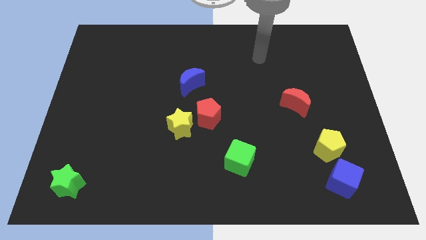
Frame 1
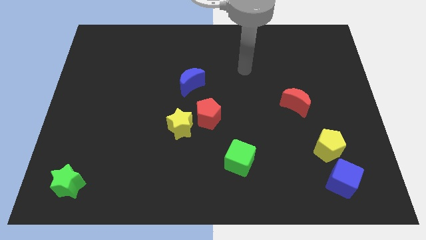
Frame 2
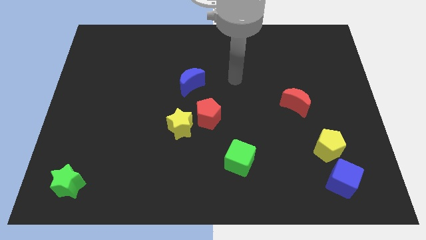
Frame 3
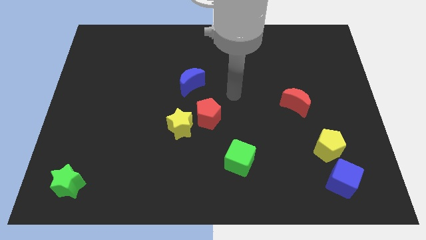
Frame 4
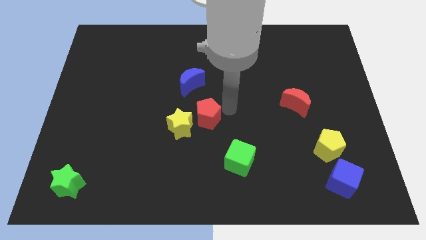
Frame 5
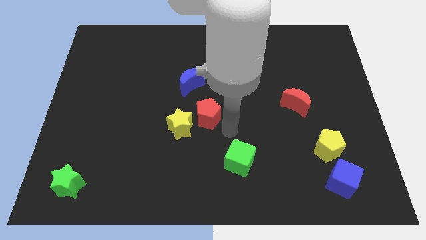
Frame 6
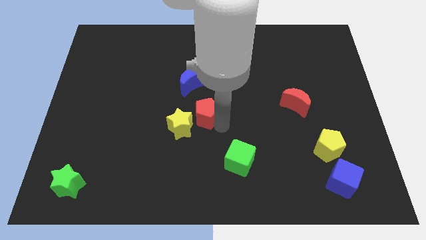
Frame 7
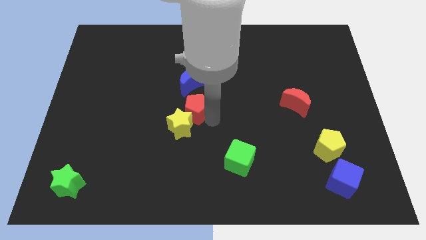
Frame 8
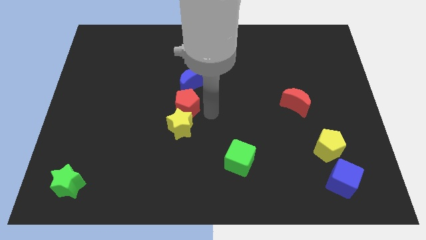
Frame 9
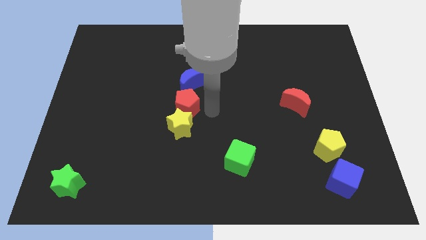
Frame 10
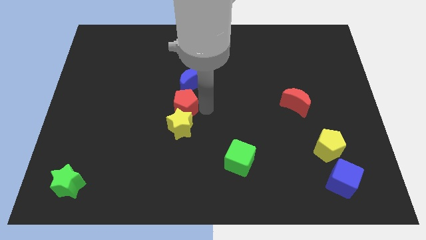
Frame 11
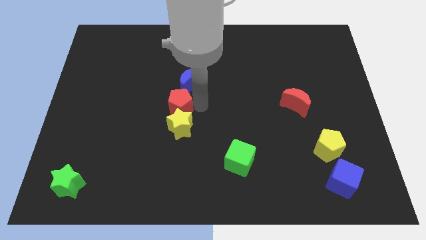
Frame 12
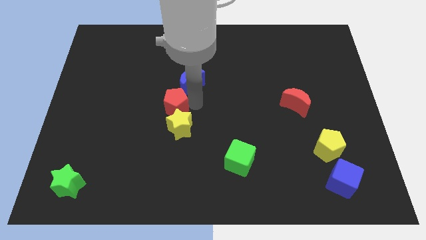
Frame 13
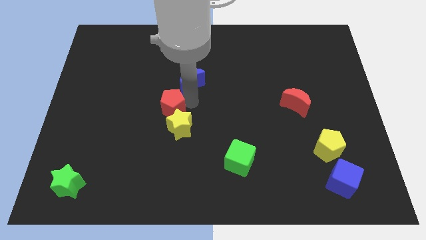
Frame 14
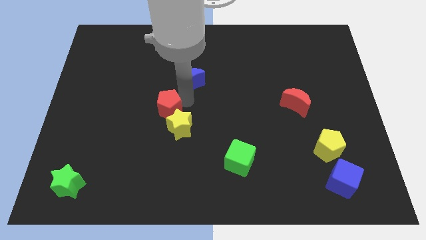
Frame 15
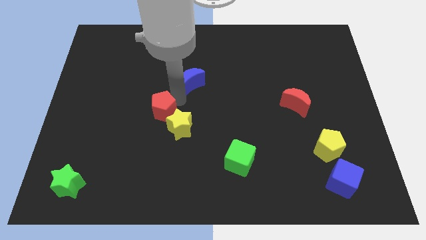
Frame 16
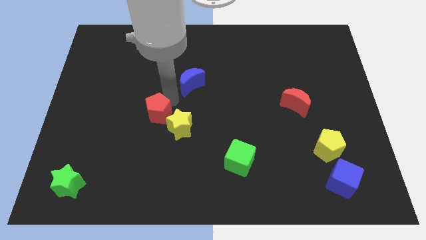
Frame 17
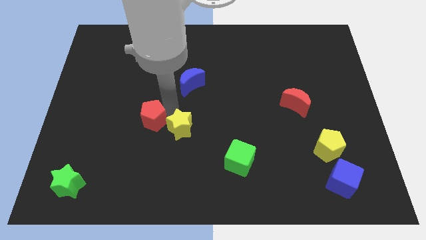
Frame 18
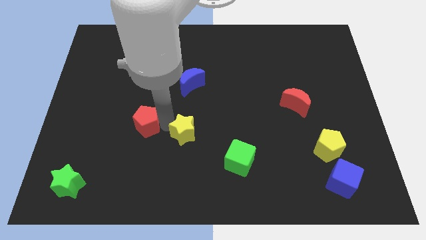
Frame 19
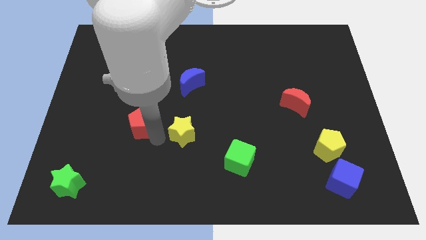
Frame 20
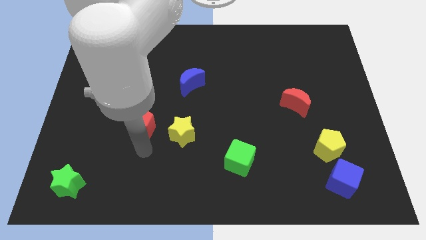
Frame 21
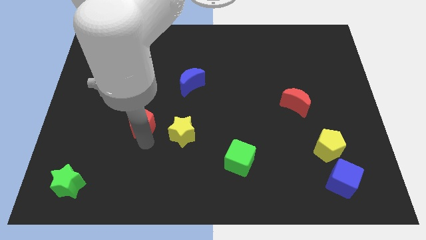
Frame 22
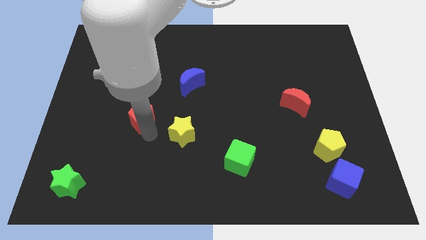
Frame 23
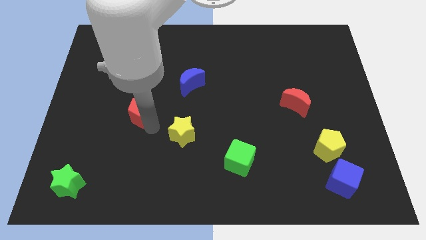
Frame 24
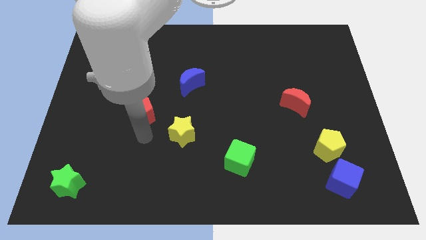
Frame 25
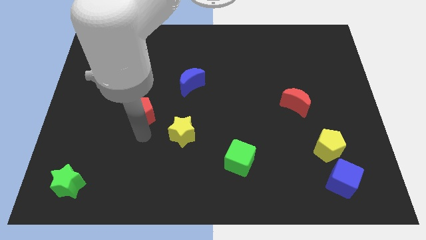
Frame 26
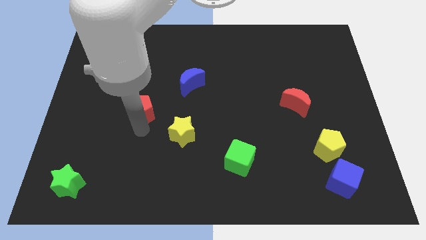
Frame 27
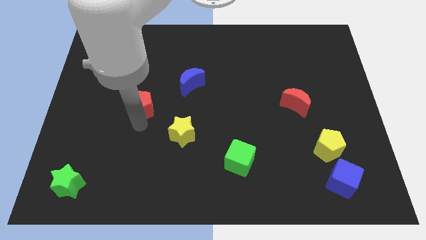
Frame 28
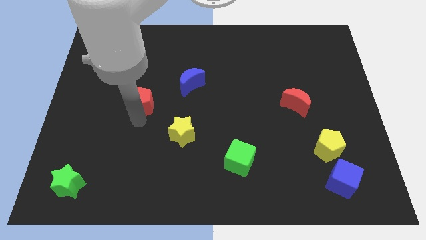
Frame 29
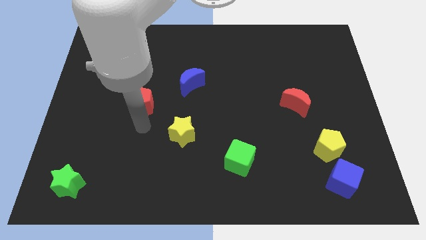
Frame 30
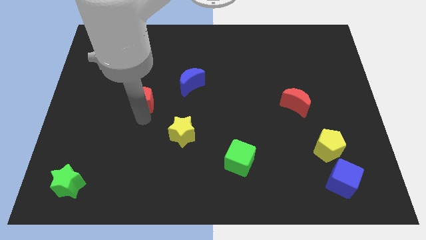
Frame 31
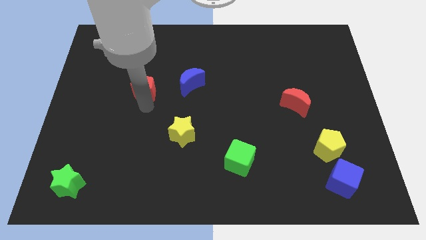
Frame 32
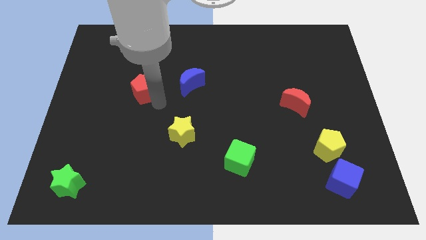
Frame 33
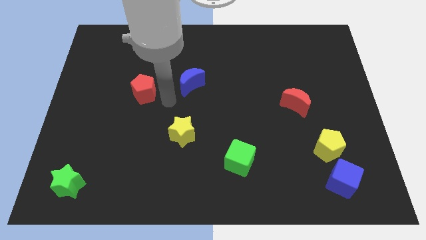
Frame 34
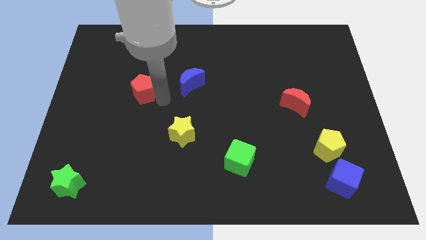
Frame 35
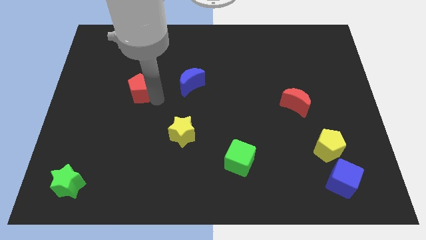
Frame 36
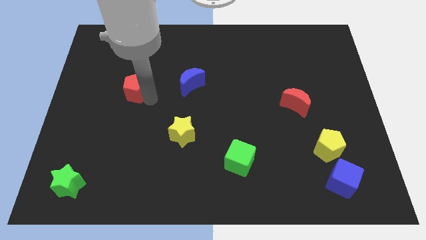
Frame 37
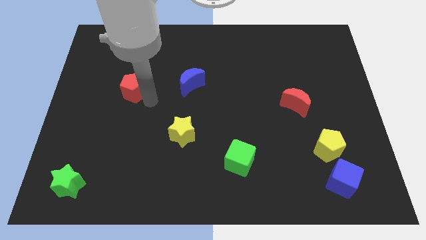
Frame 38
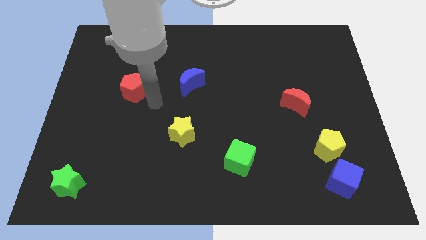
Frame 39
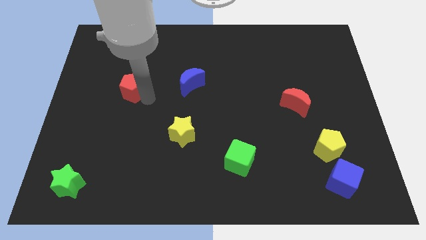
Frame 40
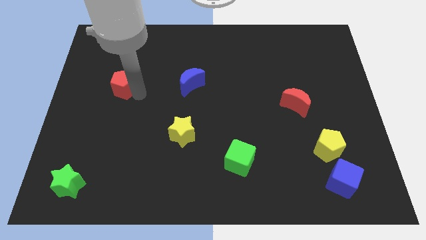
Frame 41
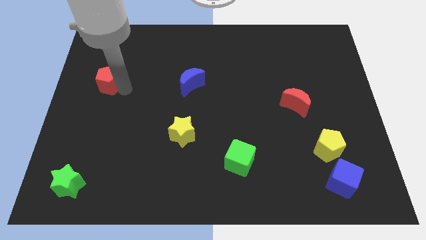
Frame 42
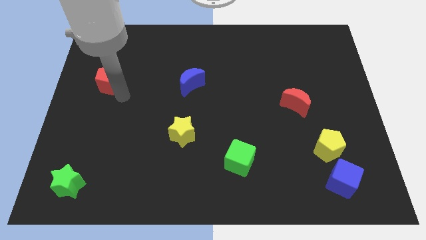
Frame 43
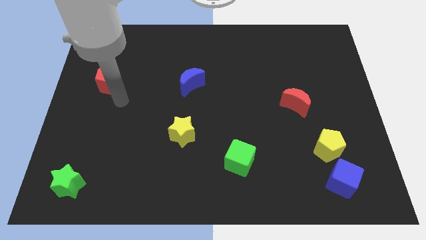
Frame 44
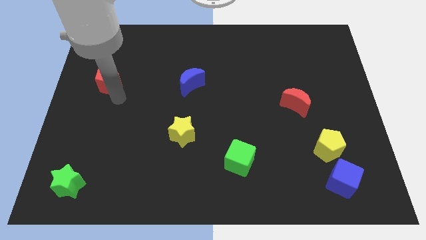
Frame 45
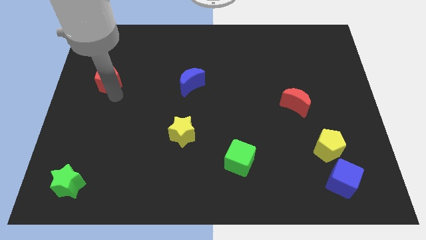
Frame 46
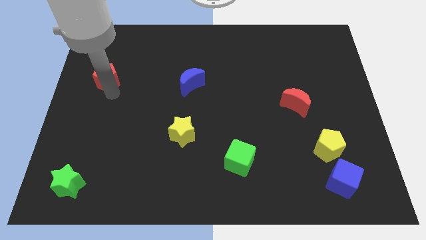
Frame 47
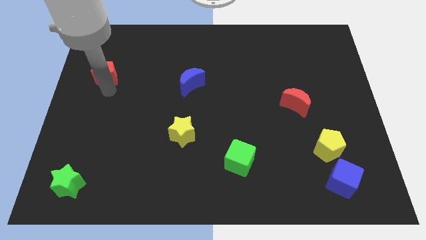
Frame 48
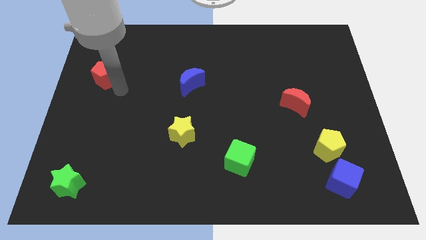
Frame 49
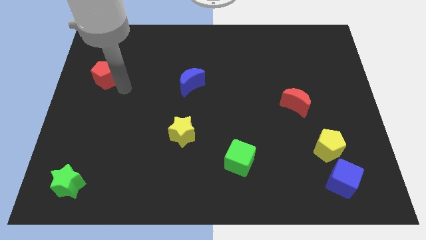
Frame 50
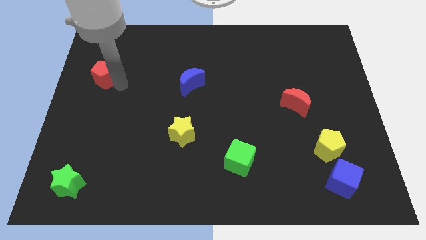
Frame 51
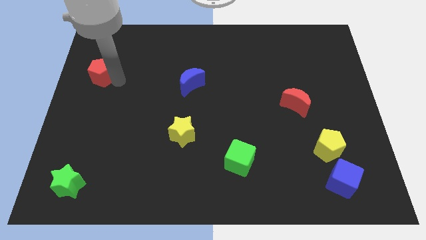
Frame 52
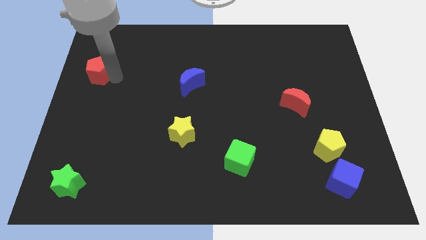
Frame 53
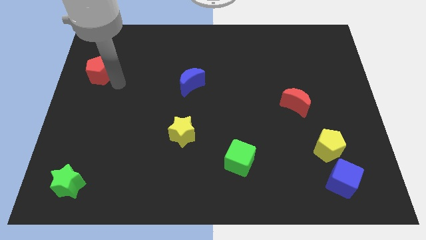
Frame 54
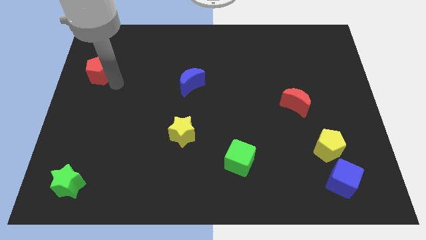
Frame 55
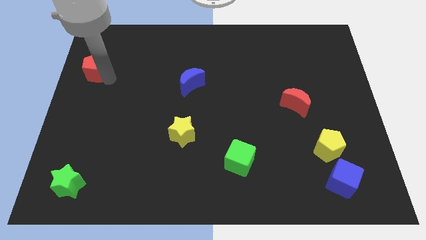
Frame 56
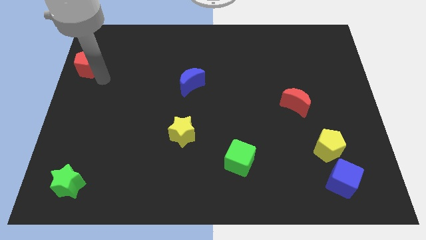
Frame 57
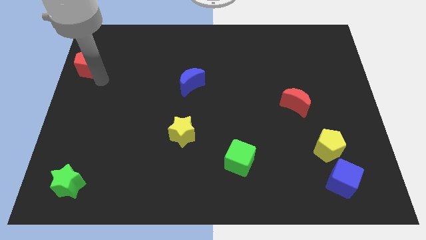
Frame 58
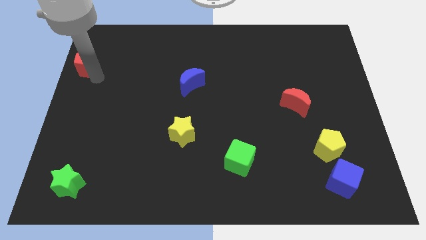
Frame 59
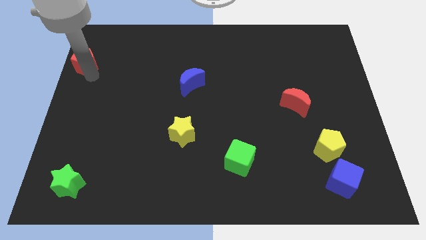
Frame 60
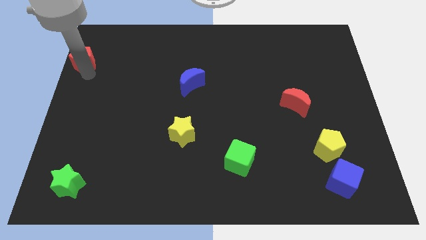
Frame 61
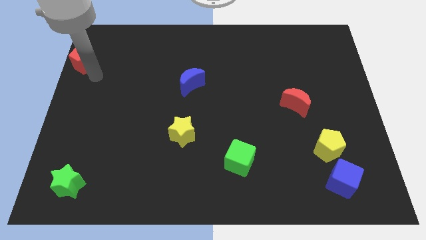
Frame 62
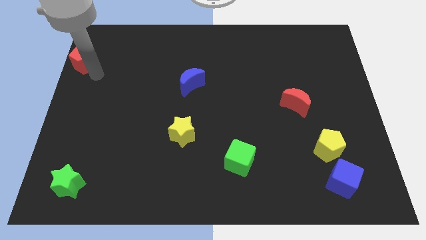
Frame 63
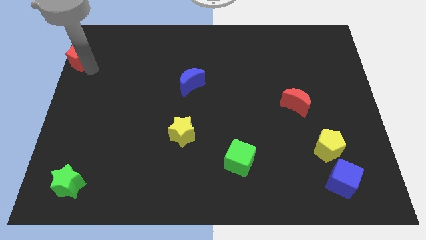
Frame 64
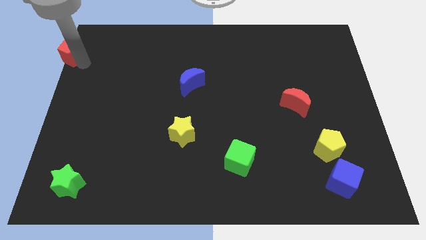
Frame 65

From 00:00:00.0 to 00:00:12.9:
move the red pentagon to the top left of the board
